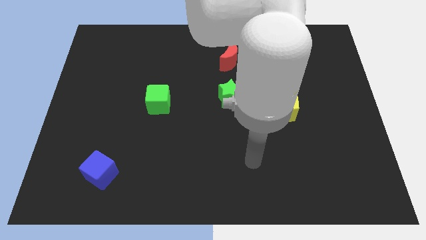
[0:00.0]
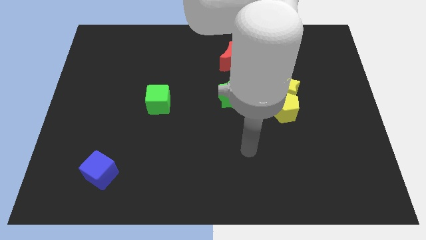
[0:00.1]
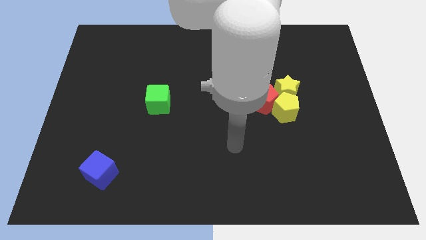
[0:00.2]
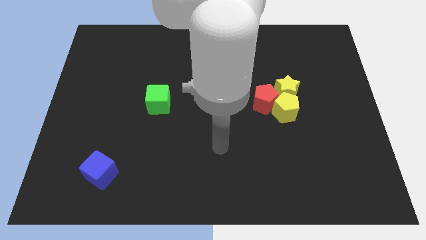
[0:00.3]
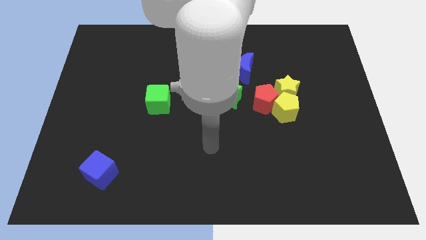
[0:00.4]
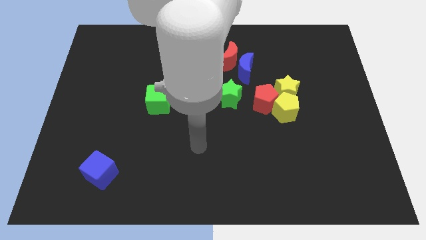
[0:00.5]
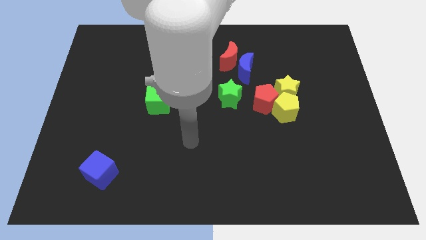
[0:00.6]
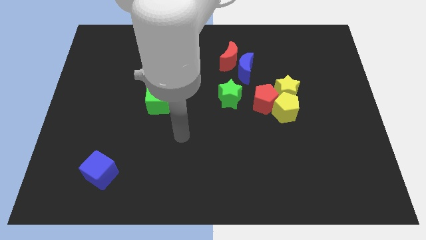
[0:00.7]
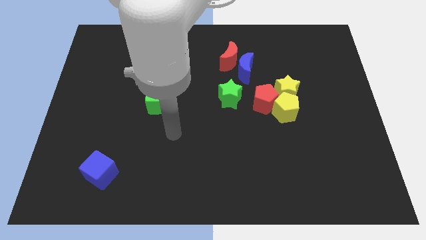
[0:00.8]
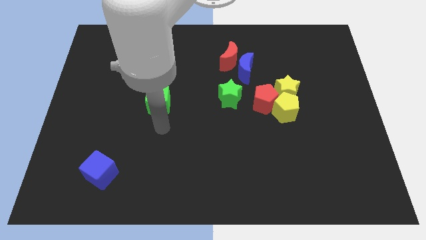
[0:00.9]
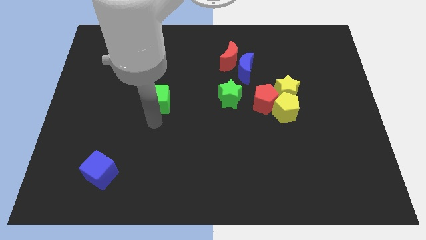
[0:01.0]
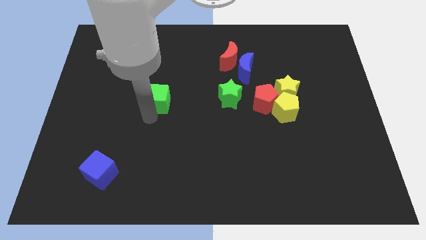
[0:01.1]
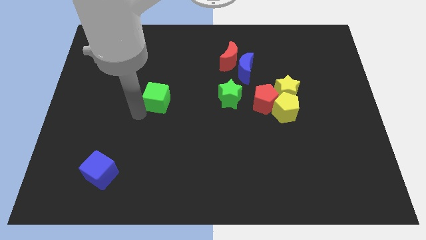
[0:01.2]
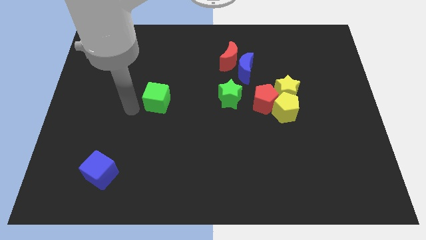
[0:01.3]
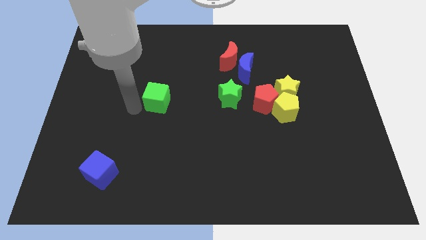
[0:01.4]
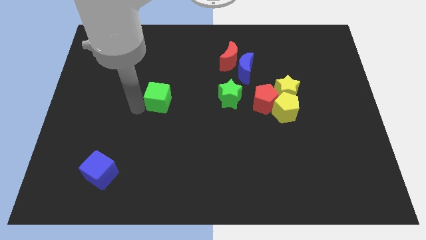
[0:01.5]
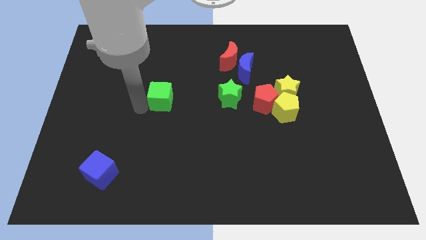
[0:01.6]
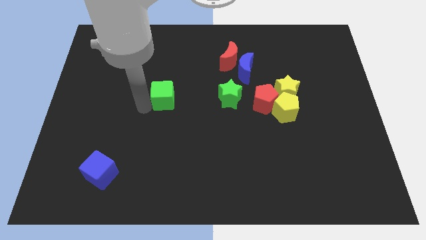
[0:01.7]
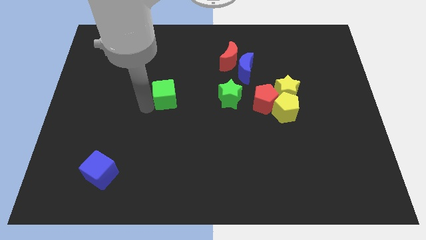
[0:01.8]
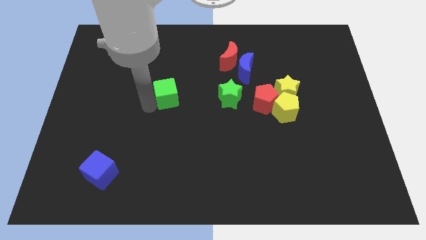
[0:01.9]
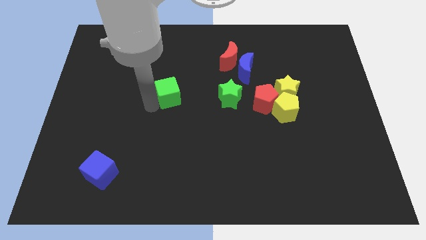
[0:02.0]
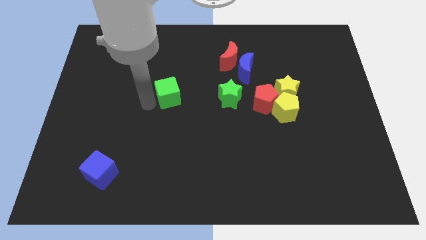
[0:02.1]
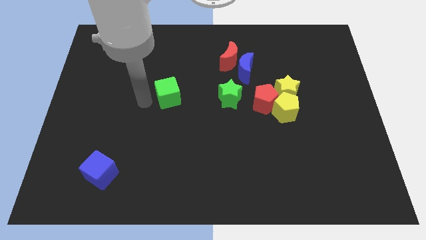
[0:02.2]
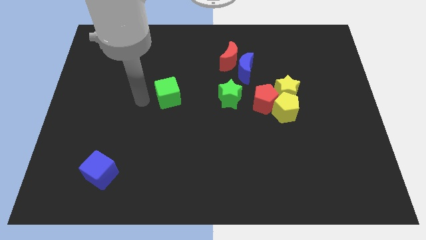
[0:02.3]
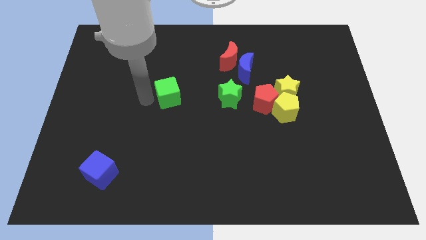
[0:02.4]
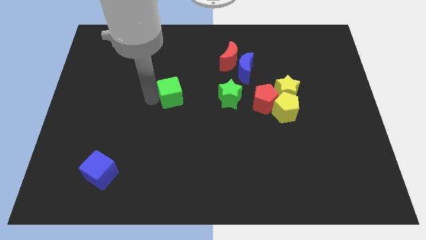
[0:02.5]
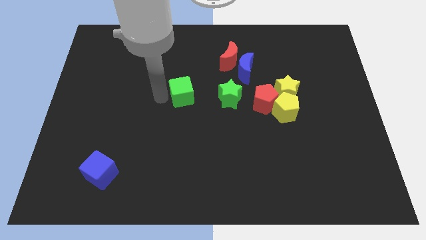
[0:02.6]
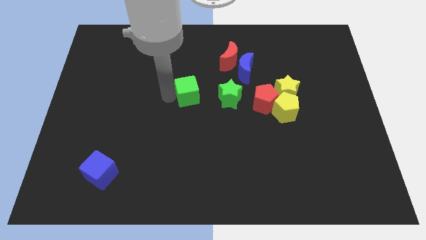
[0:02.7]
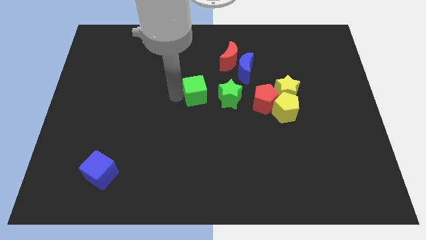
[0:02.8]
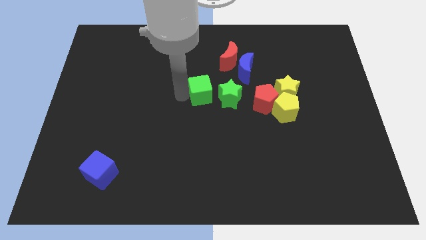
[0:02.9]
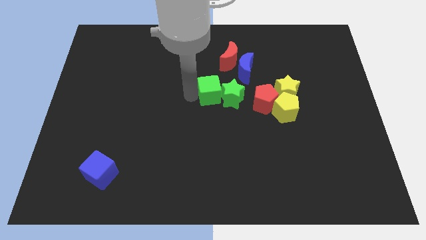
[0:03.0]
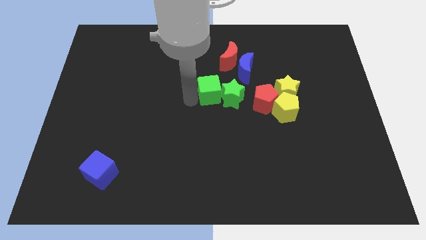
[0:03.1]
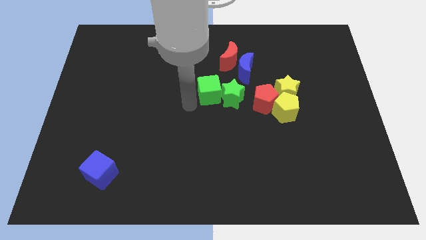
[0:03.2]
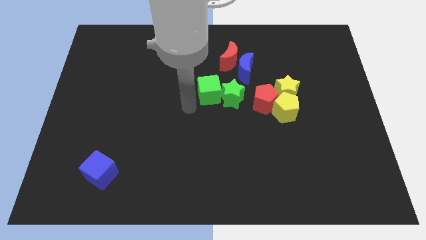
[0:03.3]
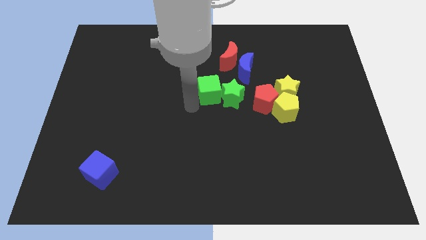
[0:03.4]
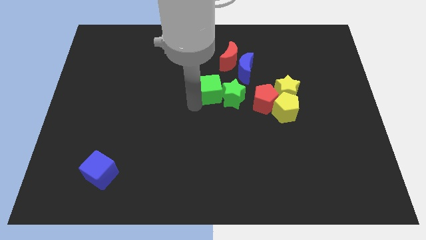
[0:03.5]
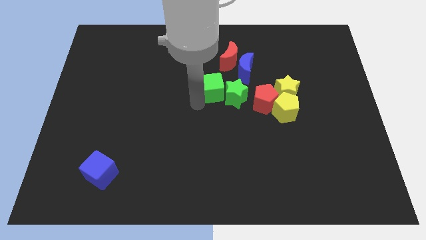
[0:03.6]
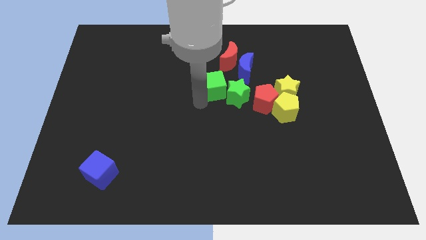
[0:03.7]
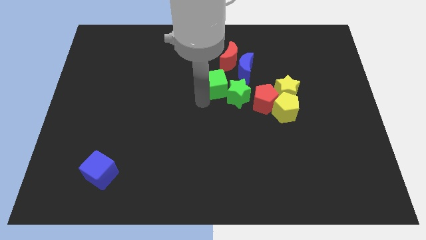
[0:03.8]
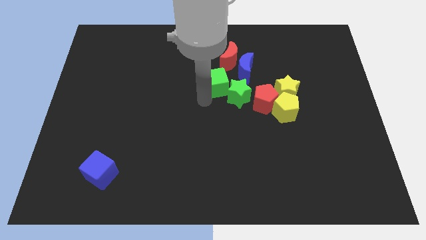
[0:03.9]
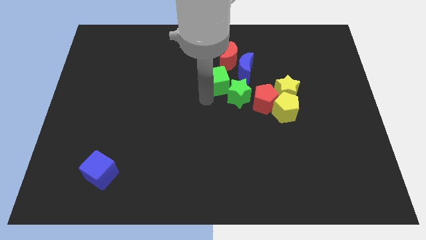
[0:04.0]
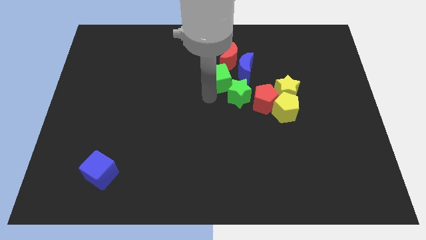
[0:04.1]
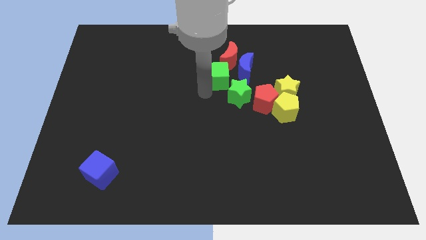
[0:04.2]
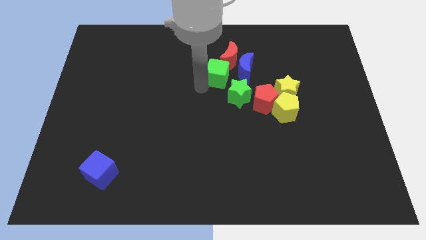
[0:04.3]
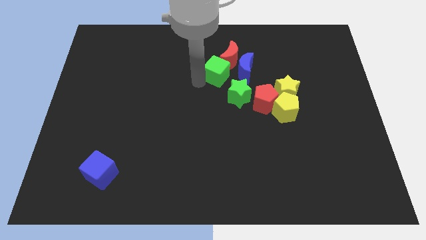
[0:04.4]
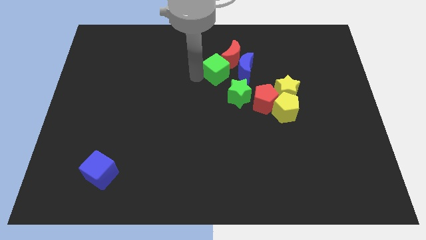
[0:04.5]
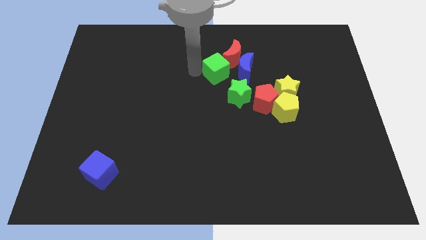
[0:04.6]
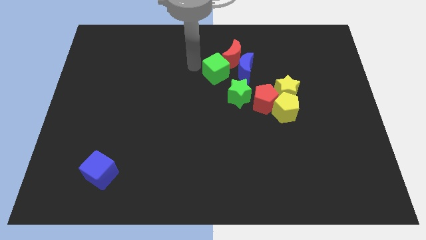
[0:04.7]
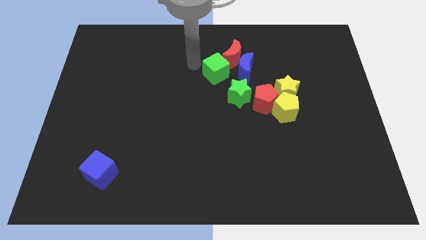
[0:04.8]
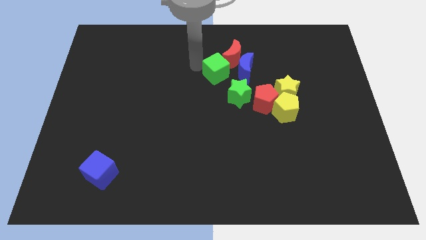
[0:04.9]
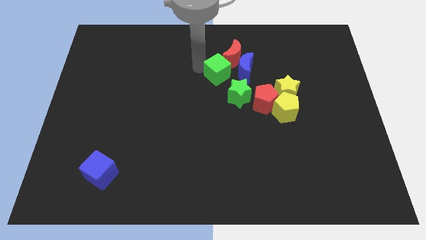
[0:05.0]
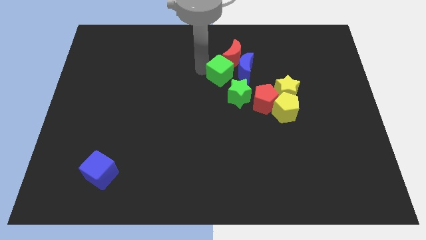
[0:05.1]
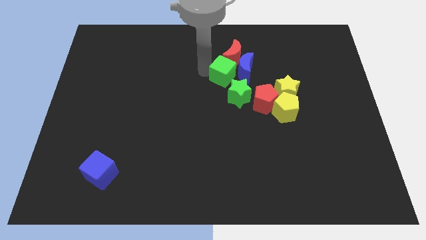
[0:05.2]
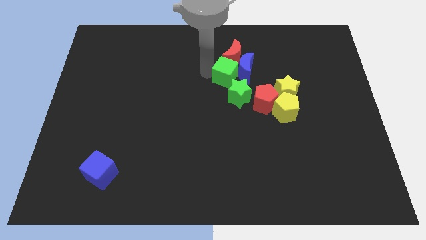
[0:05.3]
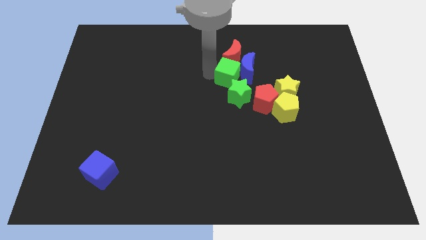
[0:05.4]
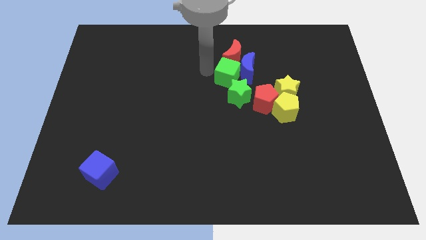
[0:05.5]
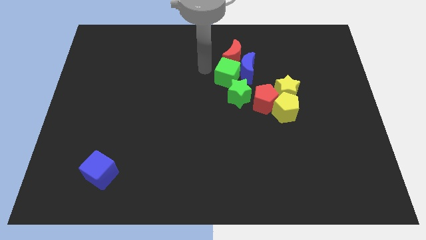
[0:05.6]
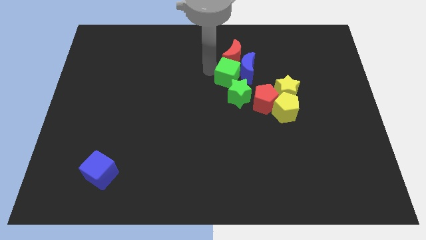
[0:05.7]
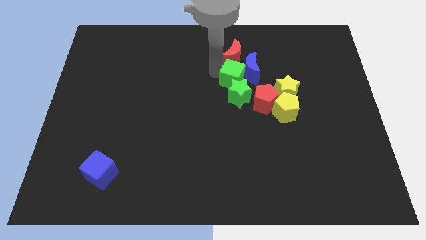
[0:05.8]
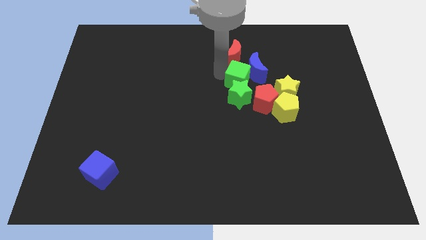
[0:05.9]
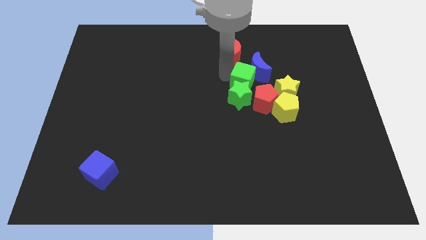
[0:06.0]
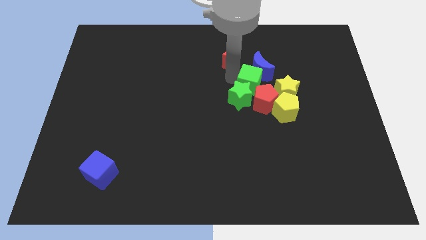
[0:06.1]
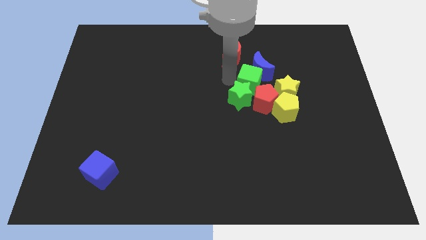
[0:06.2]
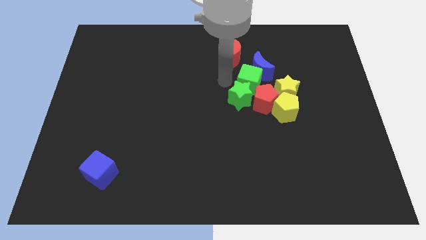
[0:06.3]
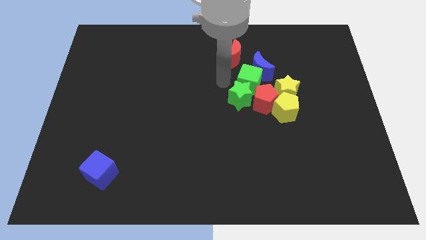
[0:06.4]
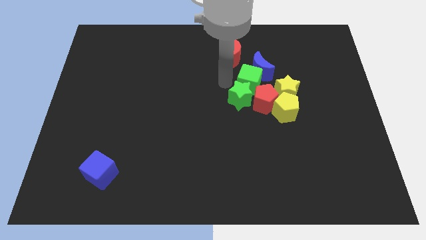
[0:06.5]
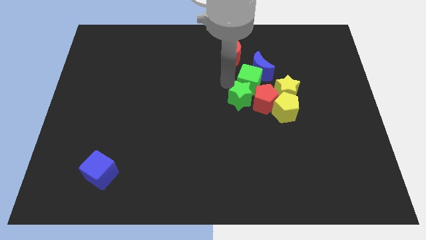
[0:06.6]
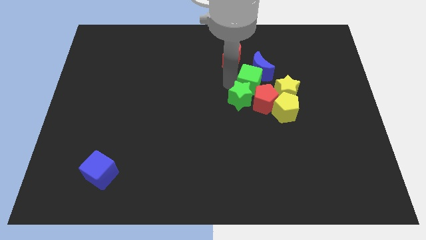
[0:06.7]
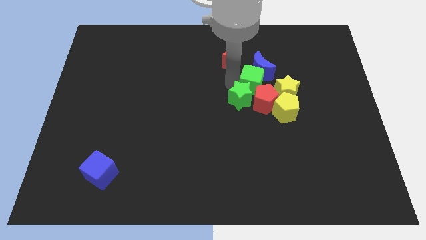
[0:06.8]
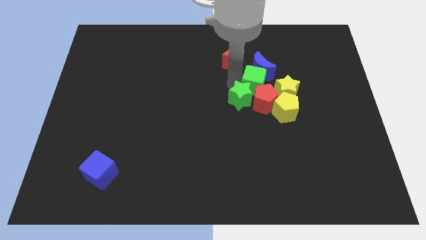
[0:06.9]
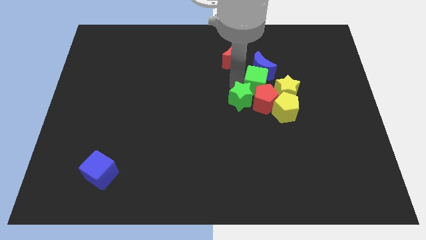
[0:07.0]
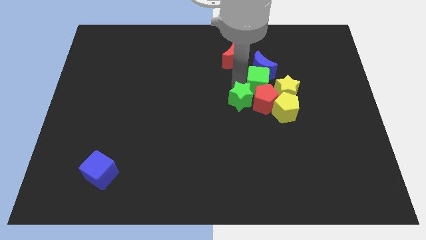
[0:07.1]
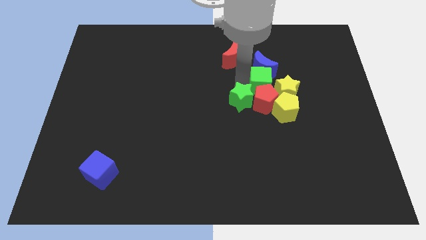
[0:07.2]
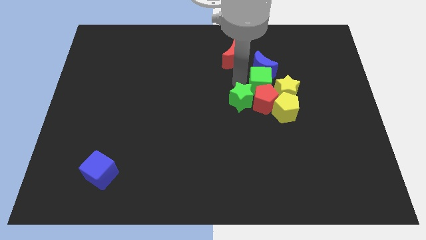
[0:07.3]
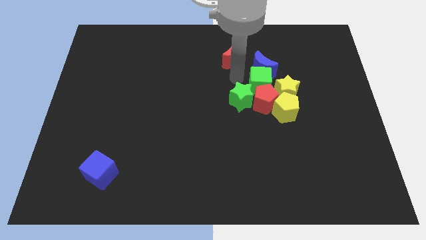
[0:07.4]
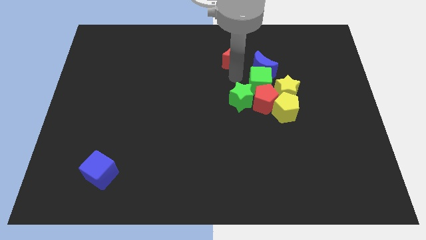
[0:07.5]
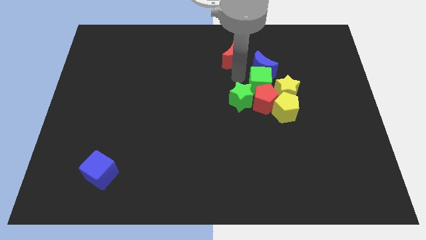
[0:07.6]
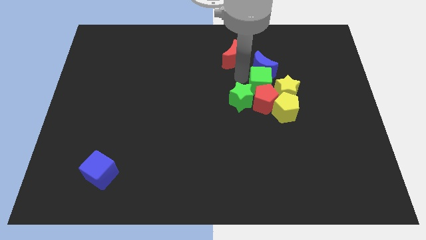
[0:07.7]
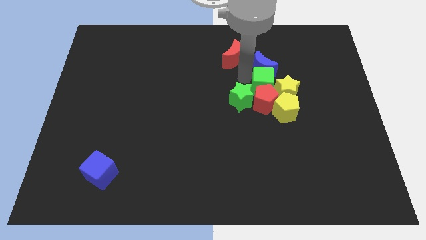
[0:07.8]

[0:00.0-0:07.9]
push the green cube towards the yellow star
